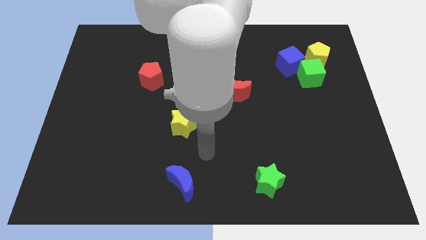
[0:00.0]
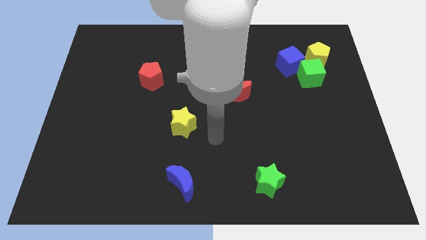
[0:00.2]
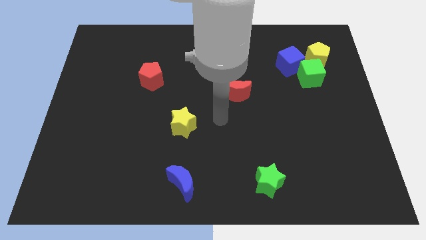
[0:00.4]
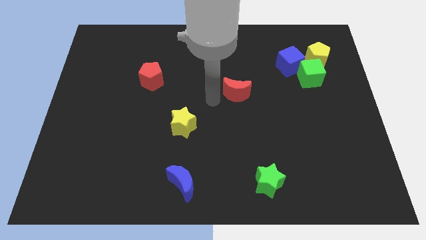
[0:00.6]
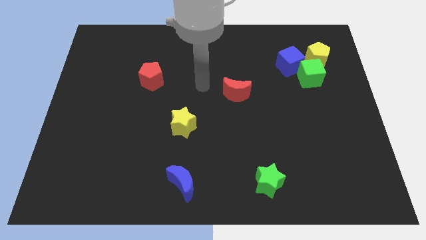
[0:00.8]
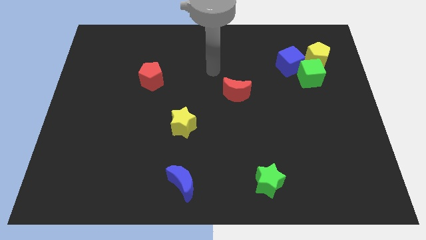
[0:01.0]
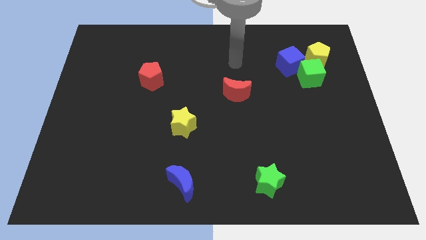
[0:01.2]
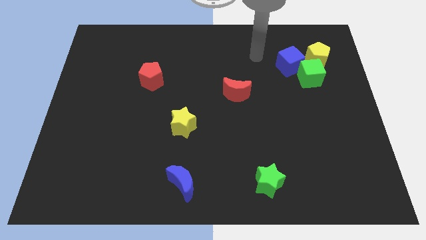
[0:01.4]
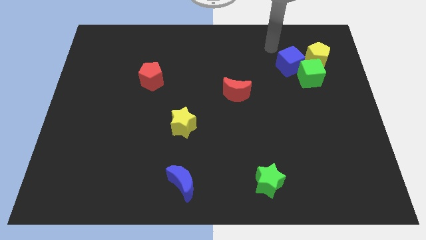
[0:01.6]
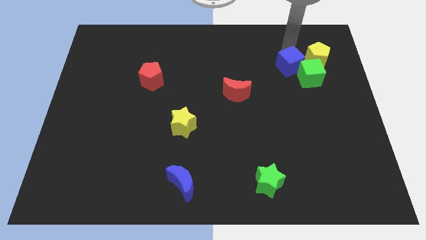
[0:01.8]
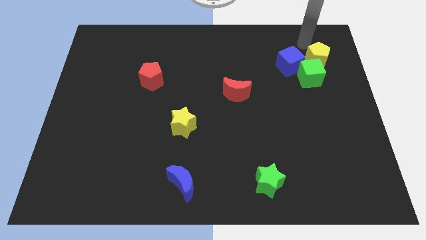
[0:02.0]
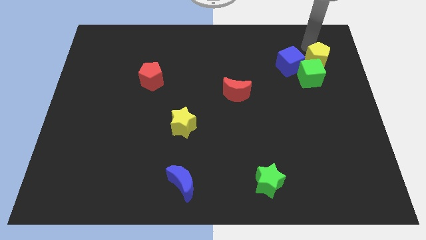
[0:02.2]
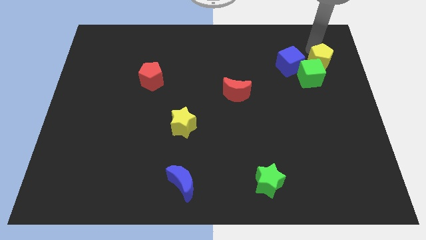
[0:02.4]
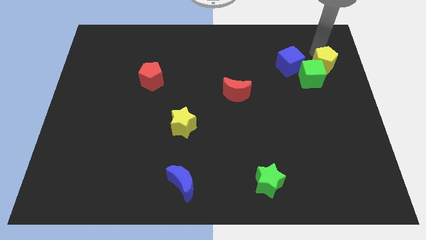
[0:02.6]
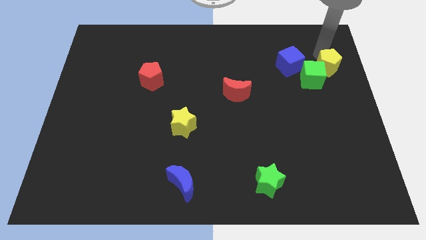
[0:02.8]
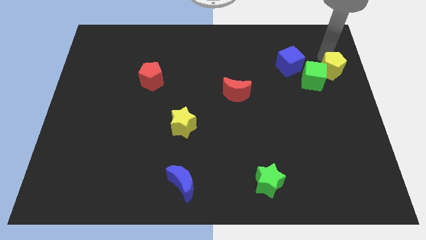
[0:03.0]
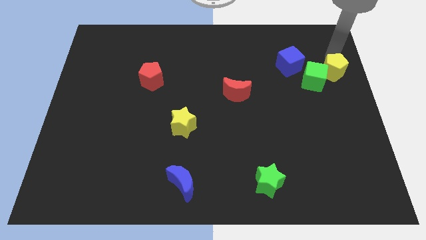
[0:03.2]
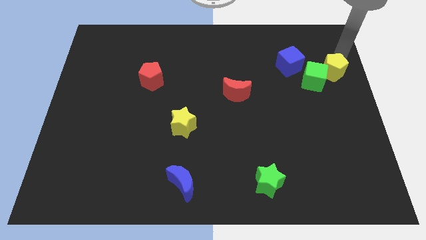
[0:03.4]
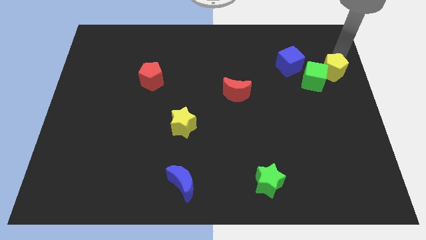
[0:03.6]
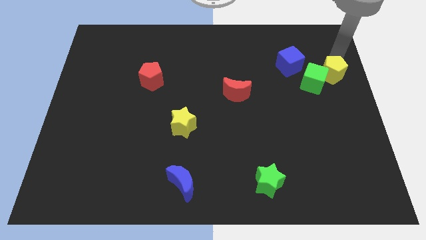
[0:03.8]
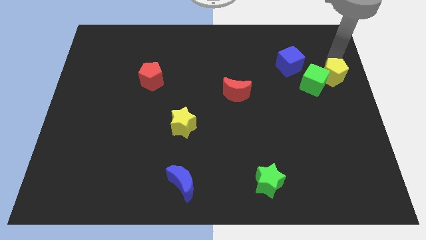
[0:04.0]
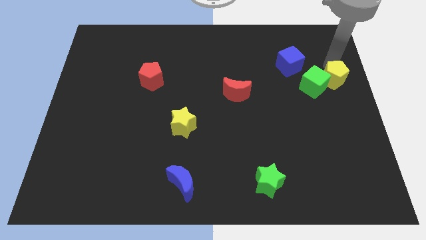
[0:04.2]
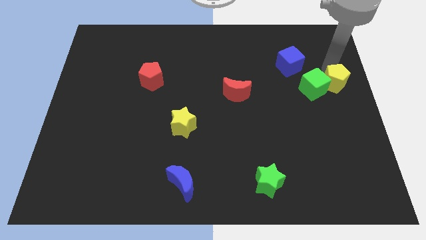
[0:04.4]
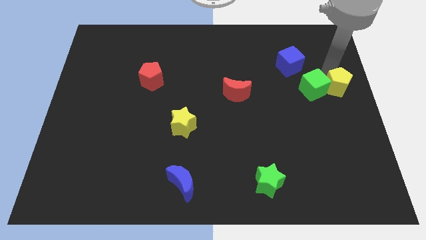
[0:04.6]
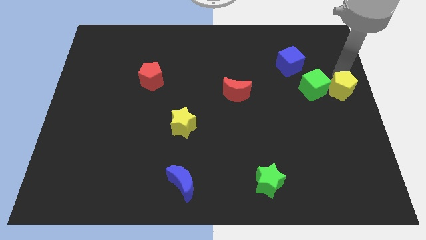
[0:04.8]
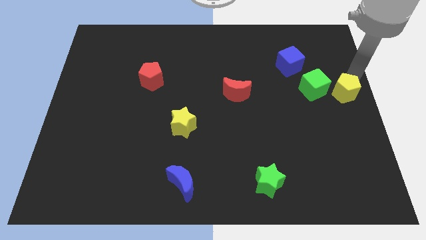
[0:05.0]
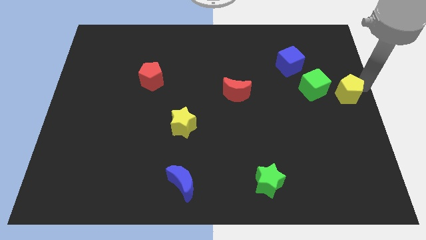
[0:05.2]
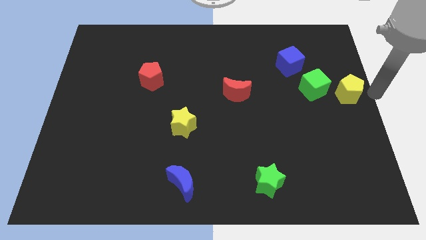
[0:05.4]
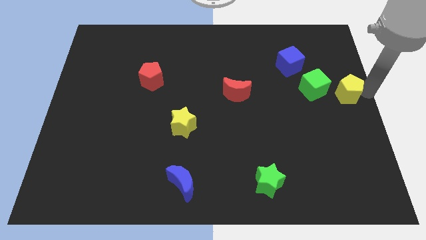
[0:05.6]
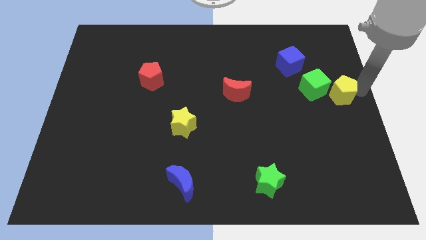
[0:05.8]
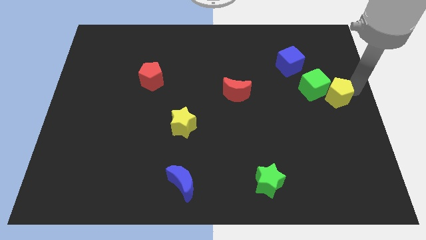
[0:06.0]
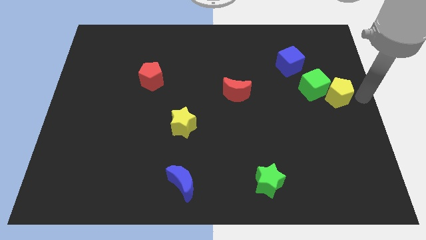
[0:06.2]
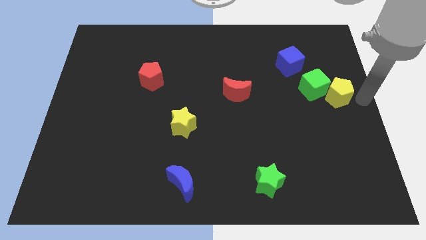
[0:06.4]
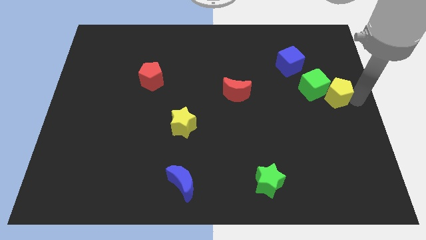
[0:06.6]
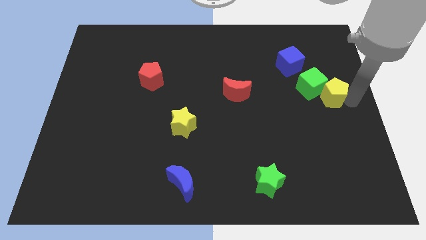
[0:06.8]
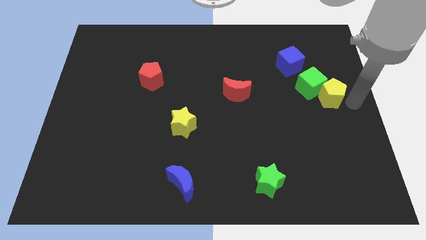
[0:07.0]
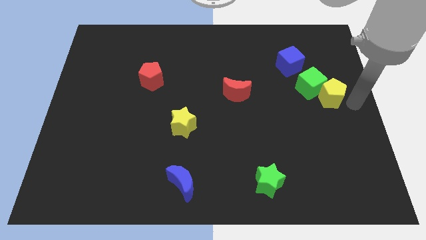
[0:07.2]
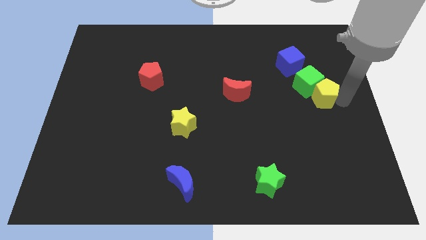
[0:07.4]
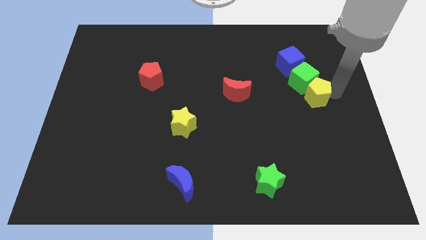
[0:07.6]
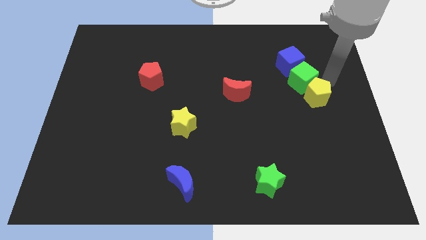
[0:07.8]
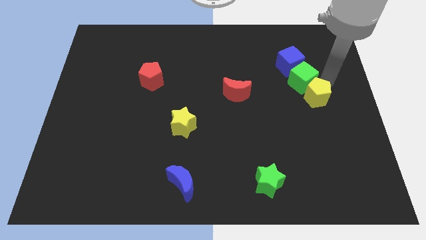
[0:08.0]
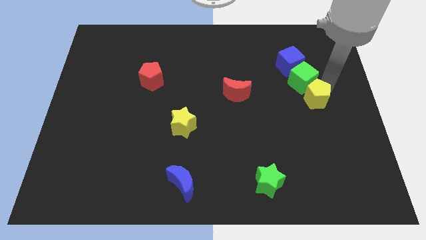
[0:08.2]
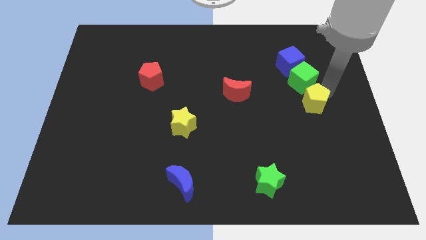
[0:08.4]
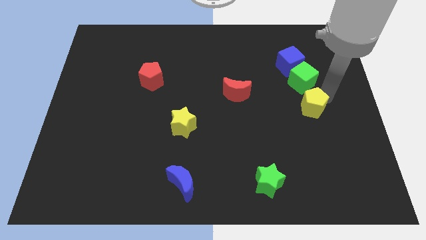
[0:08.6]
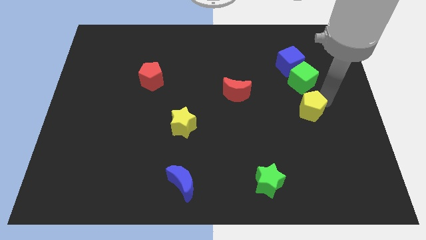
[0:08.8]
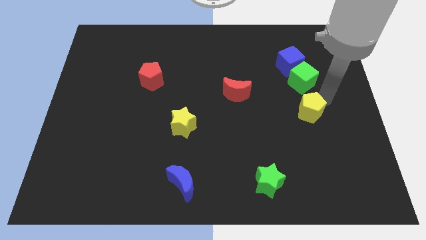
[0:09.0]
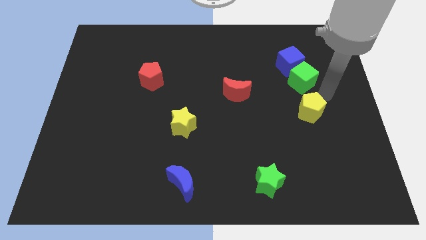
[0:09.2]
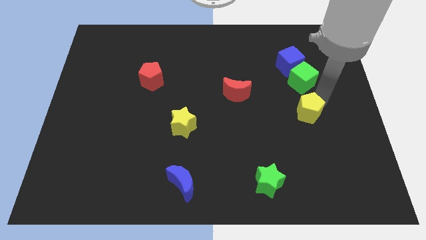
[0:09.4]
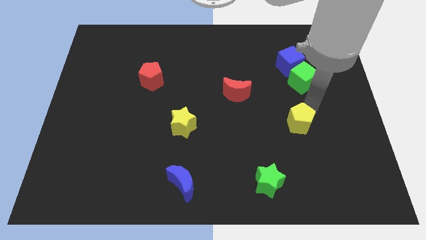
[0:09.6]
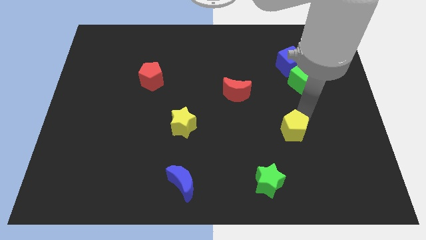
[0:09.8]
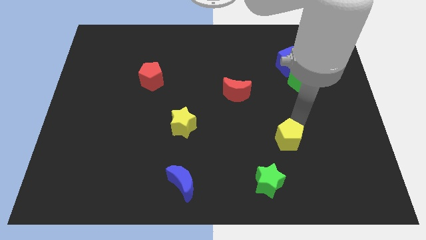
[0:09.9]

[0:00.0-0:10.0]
move the yellow pentagon to the top right of the green star

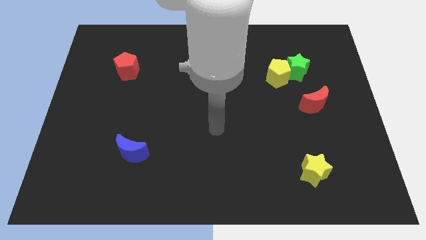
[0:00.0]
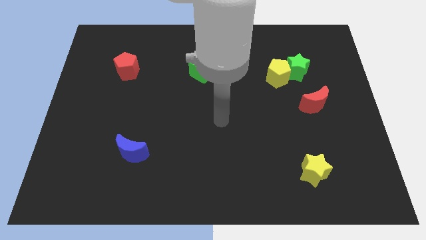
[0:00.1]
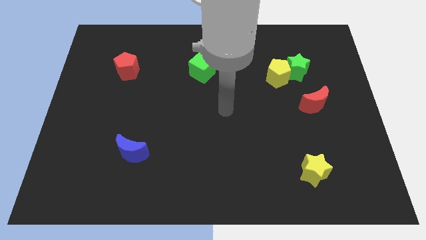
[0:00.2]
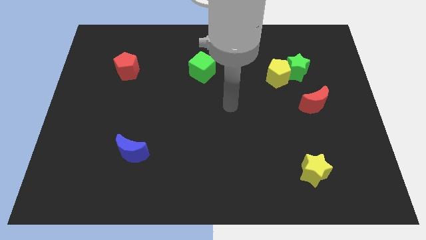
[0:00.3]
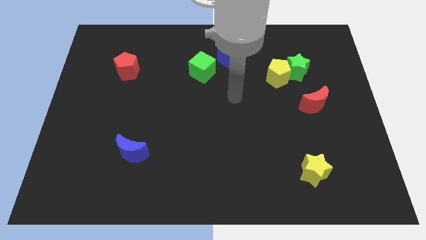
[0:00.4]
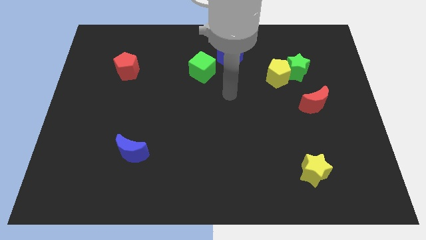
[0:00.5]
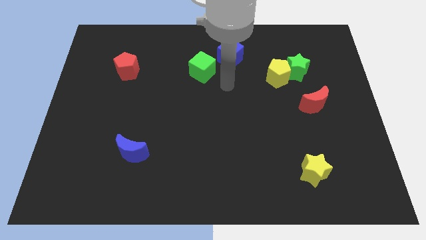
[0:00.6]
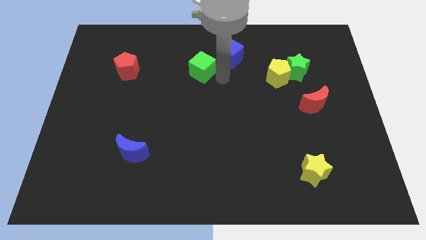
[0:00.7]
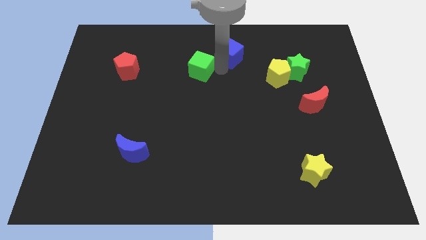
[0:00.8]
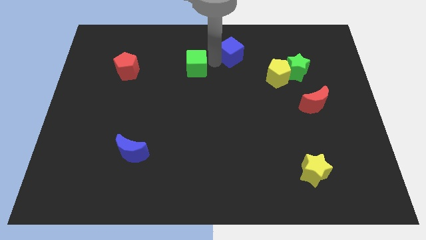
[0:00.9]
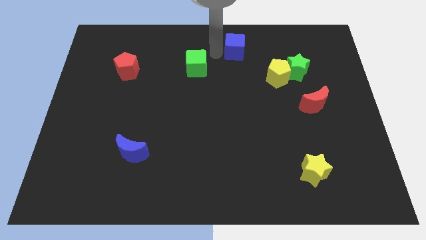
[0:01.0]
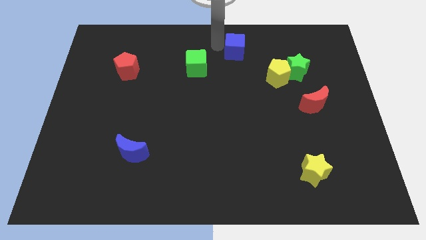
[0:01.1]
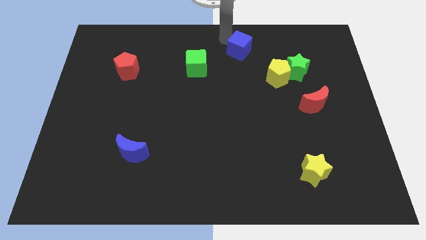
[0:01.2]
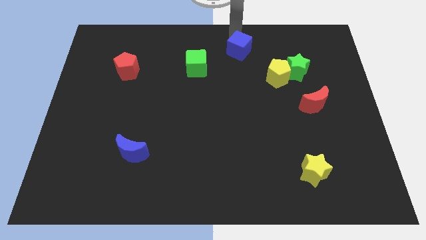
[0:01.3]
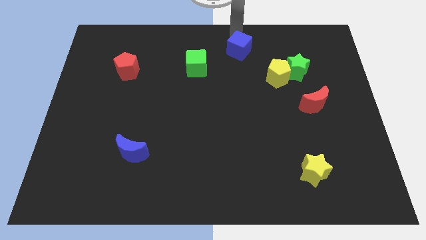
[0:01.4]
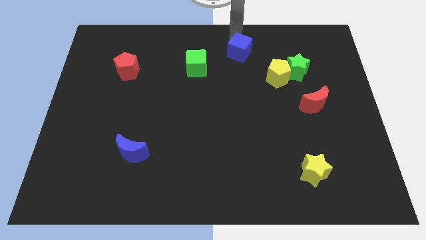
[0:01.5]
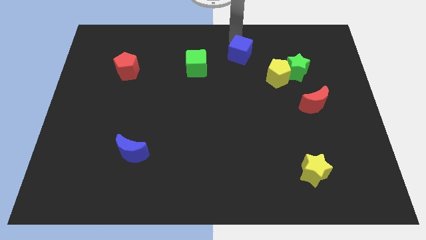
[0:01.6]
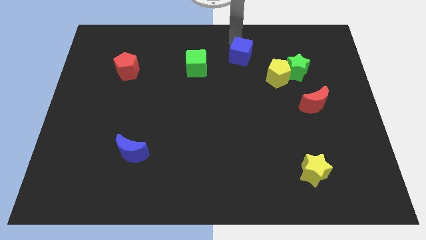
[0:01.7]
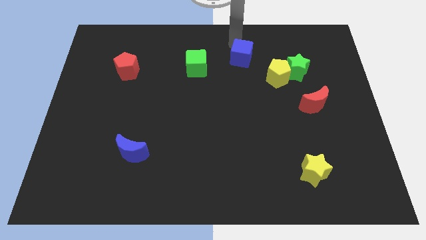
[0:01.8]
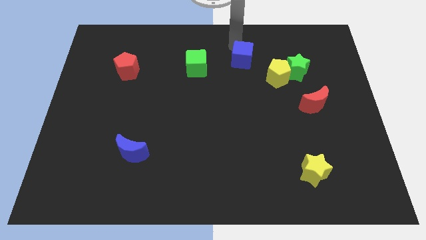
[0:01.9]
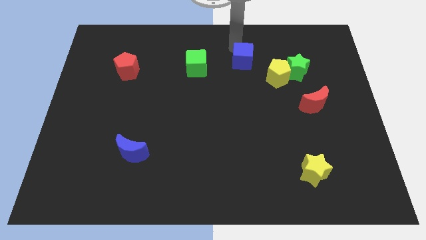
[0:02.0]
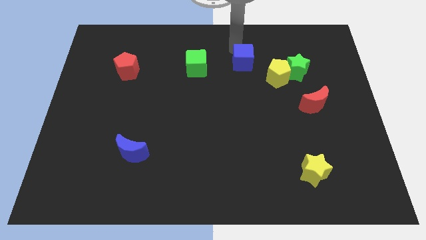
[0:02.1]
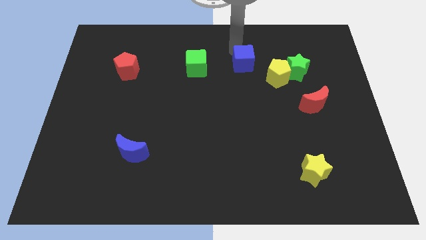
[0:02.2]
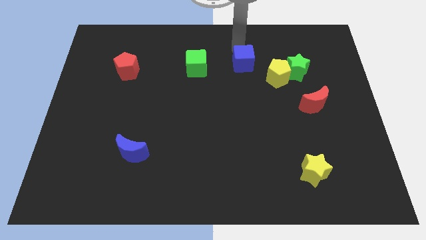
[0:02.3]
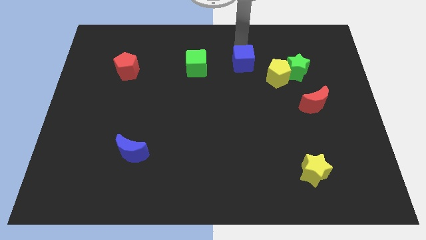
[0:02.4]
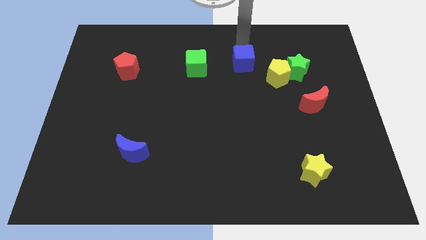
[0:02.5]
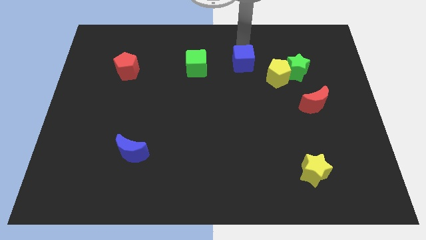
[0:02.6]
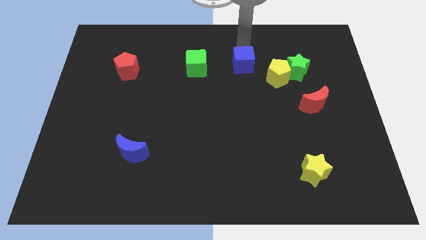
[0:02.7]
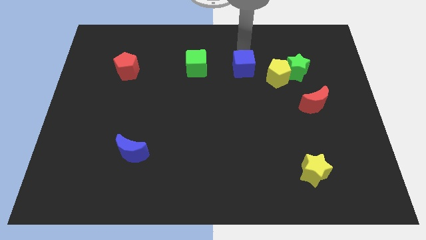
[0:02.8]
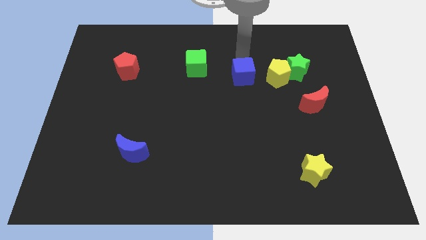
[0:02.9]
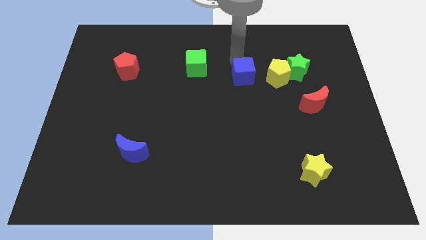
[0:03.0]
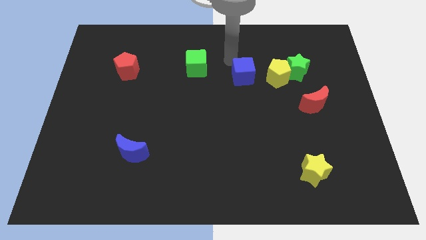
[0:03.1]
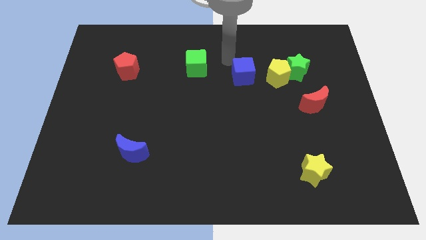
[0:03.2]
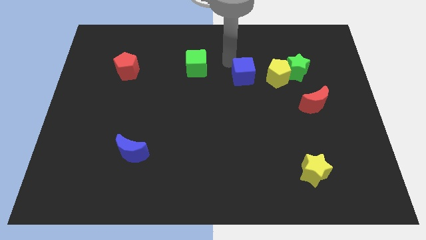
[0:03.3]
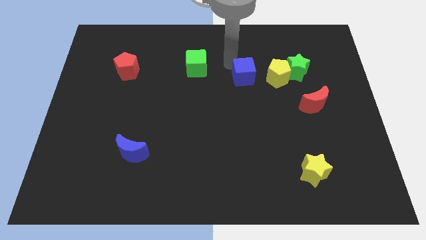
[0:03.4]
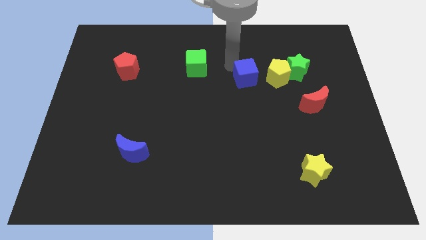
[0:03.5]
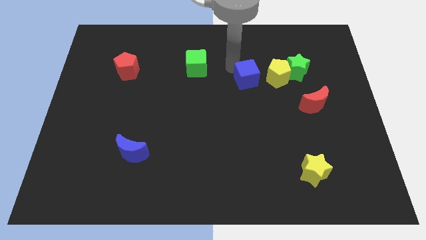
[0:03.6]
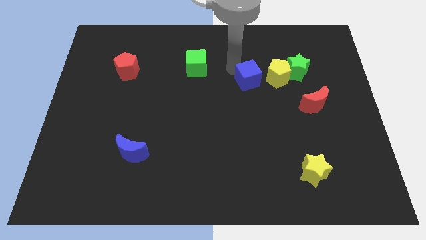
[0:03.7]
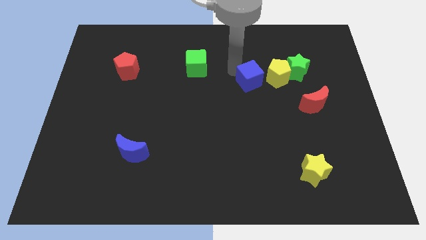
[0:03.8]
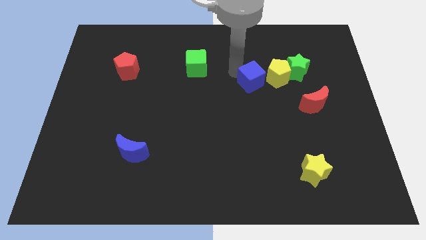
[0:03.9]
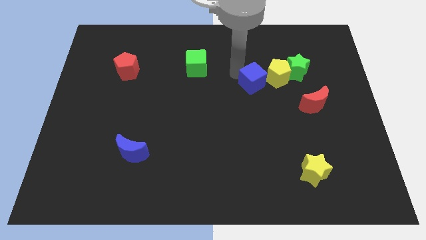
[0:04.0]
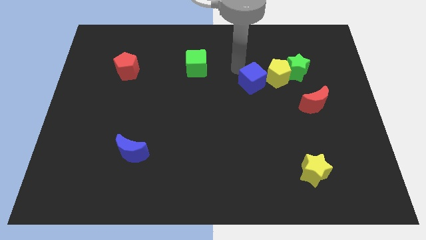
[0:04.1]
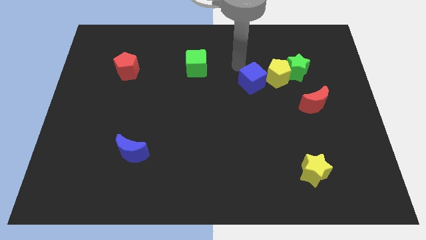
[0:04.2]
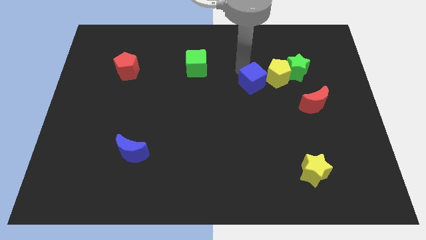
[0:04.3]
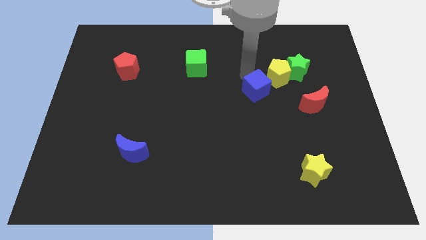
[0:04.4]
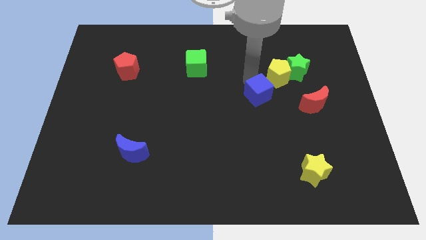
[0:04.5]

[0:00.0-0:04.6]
push the blue cube to the left of the red moon
